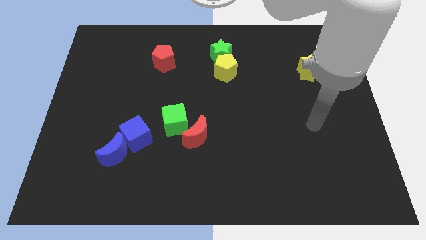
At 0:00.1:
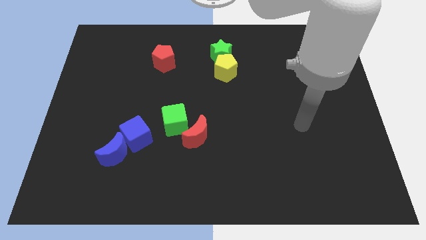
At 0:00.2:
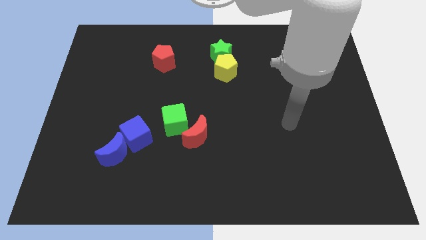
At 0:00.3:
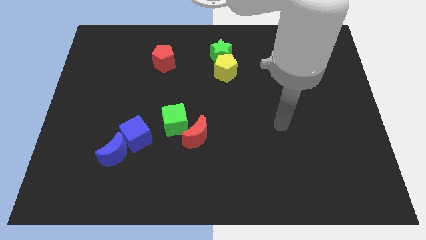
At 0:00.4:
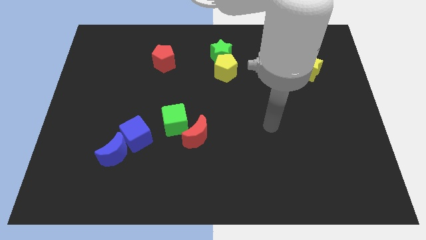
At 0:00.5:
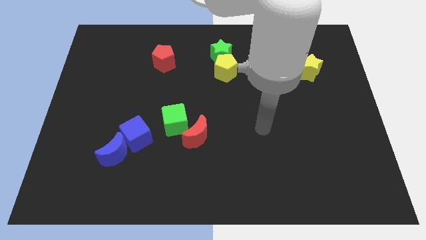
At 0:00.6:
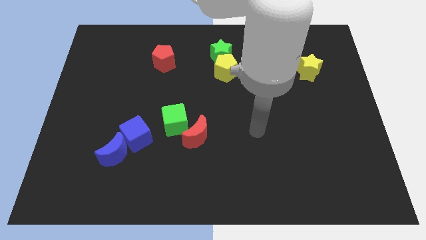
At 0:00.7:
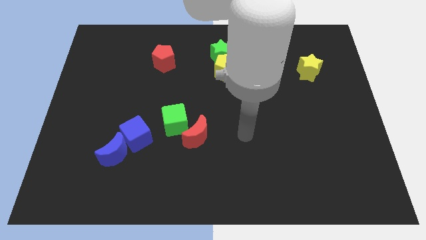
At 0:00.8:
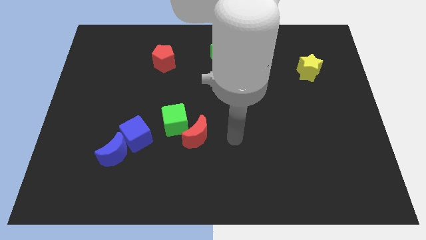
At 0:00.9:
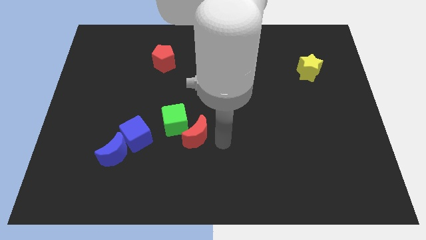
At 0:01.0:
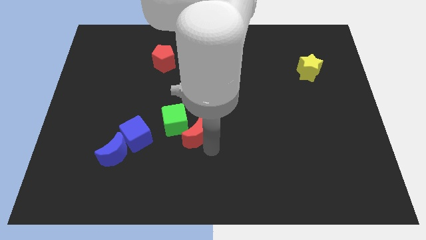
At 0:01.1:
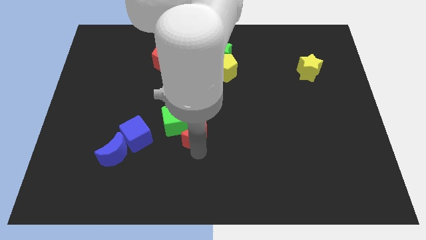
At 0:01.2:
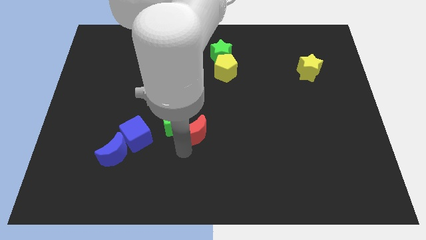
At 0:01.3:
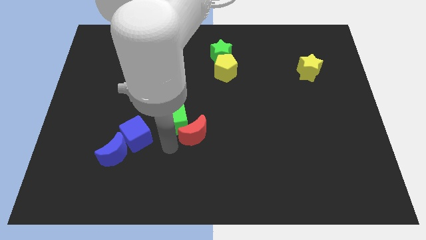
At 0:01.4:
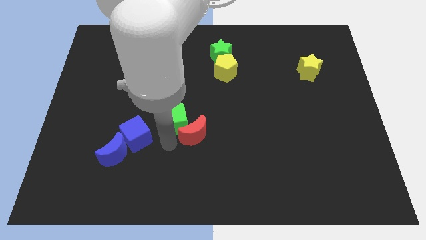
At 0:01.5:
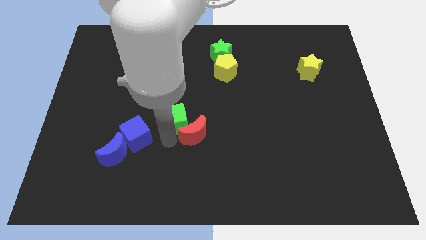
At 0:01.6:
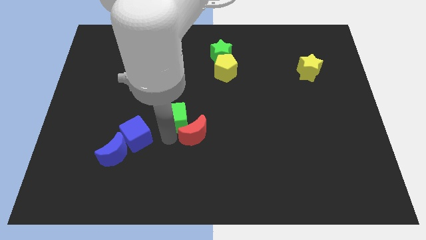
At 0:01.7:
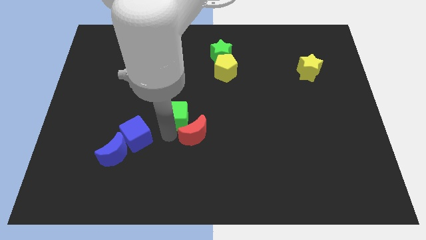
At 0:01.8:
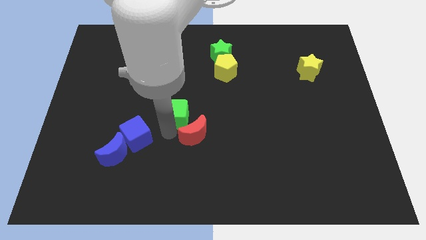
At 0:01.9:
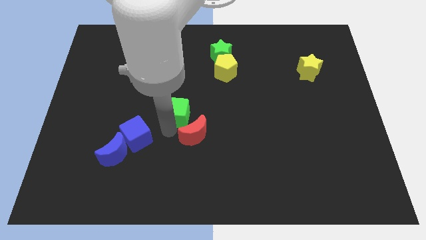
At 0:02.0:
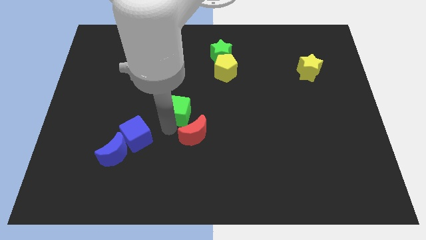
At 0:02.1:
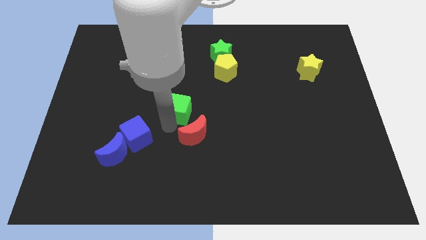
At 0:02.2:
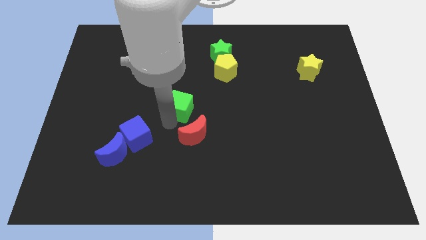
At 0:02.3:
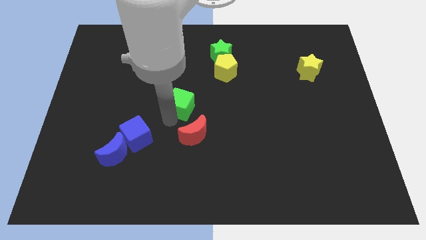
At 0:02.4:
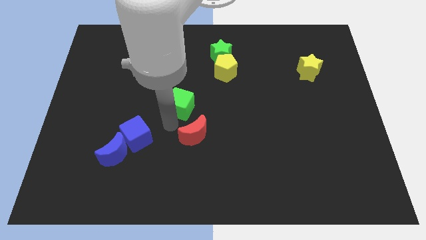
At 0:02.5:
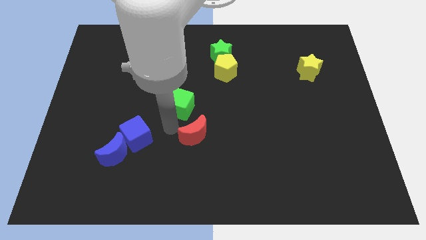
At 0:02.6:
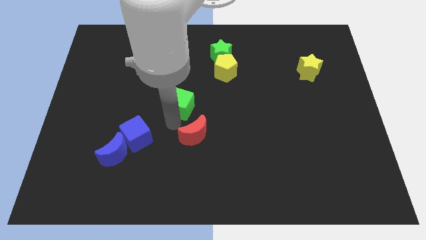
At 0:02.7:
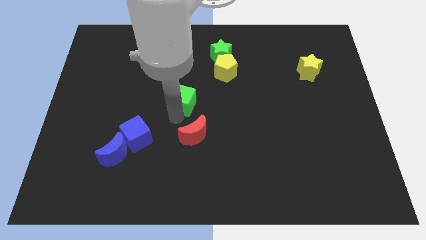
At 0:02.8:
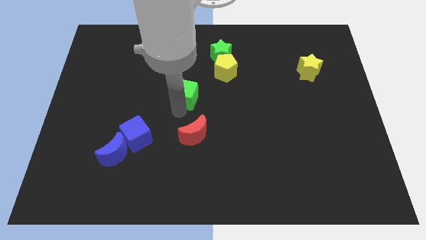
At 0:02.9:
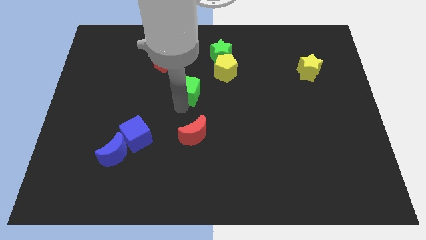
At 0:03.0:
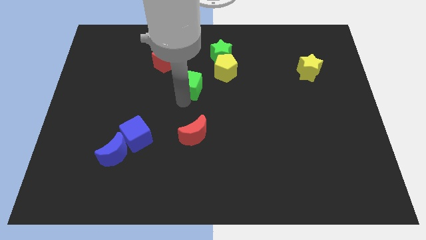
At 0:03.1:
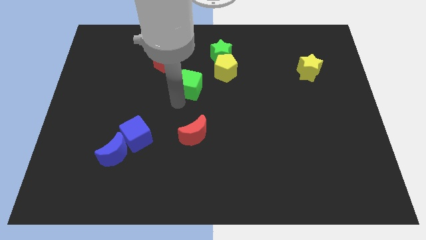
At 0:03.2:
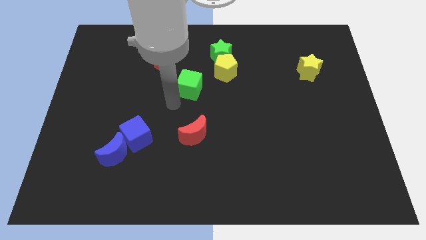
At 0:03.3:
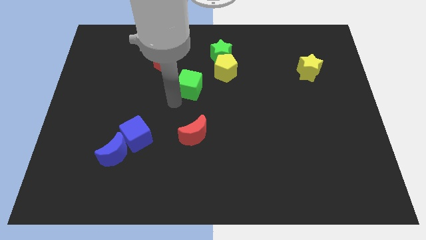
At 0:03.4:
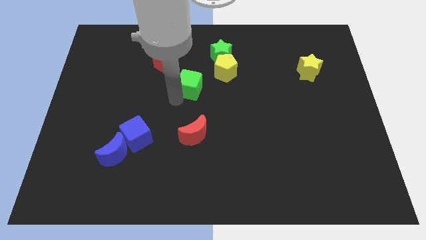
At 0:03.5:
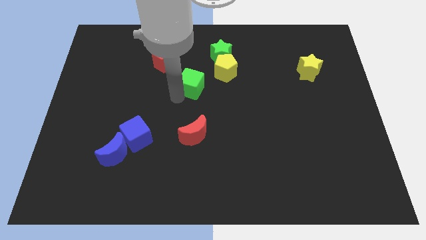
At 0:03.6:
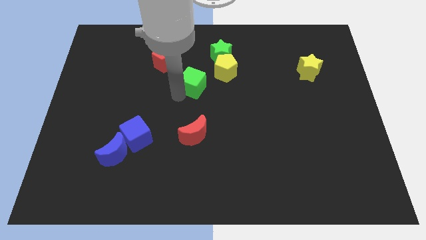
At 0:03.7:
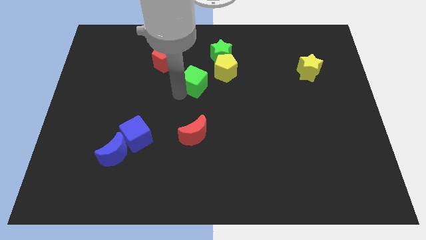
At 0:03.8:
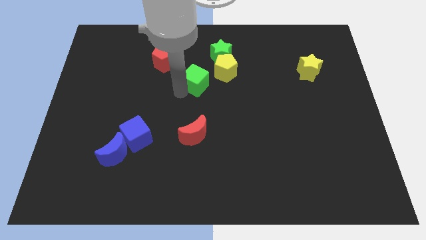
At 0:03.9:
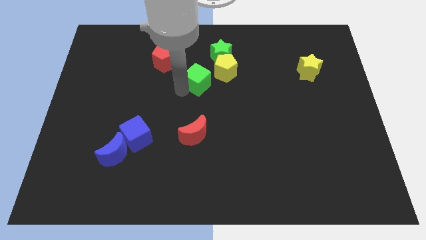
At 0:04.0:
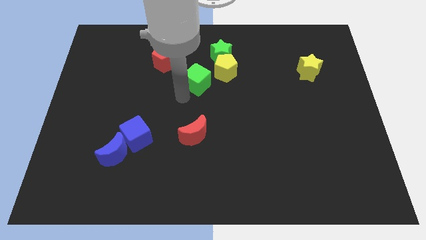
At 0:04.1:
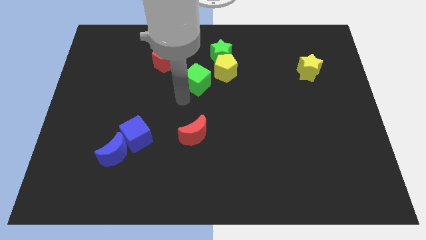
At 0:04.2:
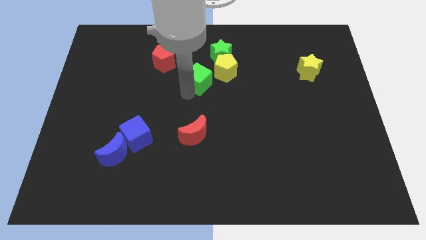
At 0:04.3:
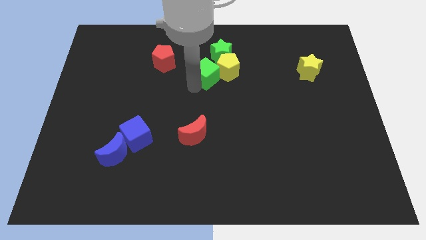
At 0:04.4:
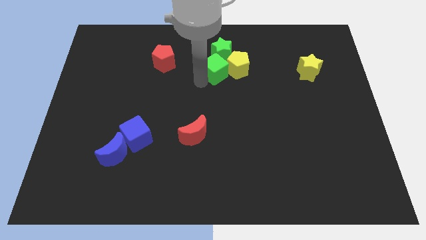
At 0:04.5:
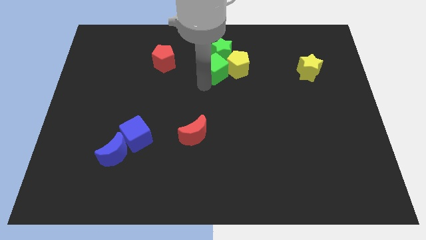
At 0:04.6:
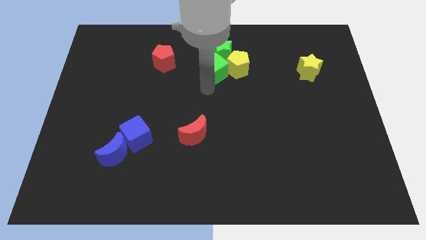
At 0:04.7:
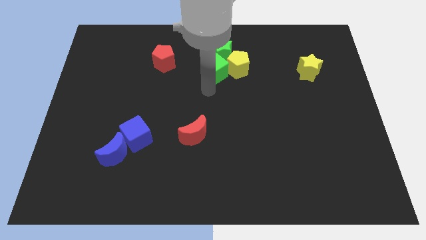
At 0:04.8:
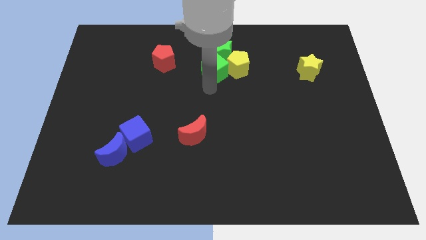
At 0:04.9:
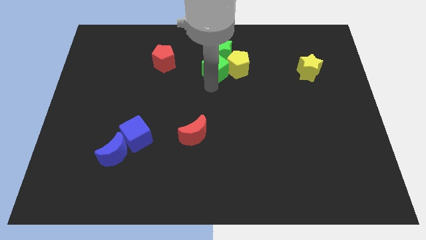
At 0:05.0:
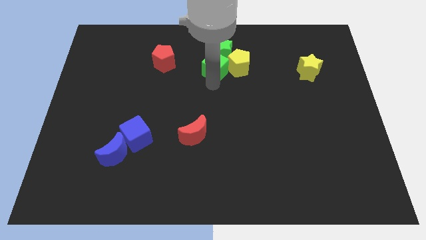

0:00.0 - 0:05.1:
push the green cube next to the green star

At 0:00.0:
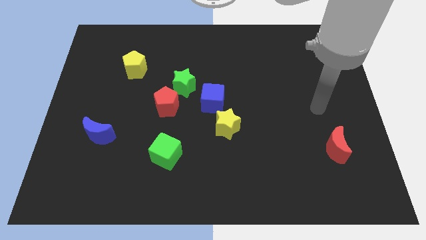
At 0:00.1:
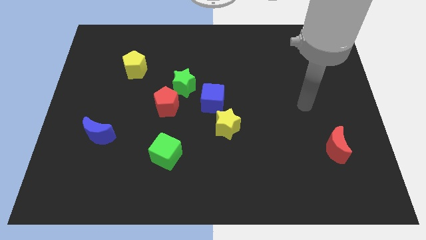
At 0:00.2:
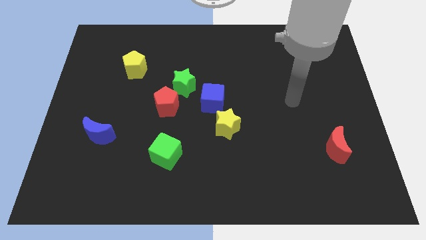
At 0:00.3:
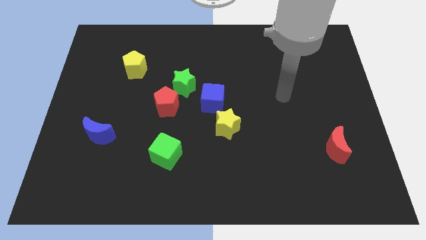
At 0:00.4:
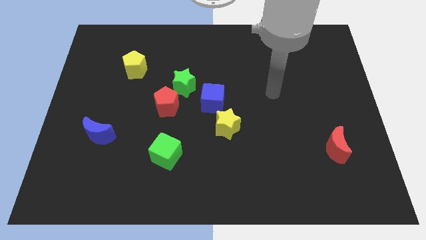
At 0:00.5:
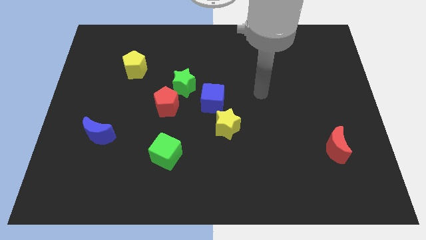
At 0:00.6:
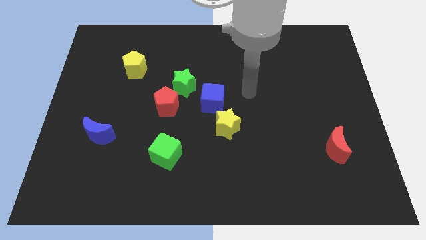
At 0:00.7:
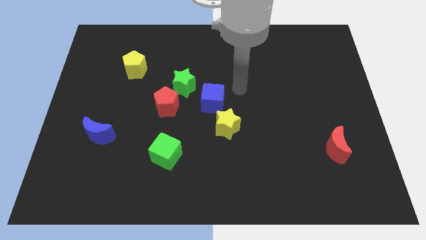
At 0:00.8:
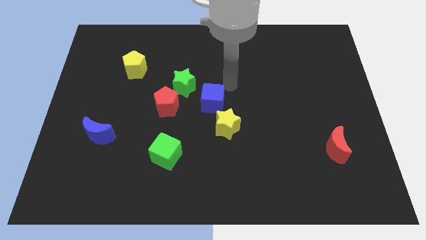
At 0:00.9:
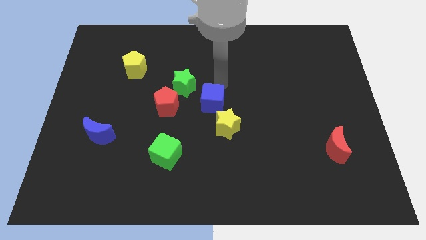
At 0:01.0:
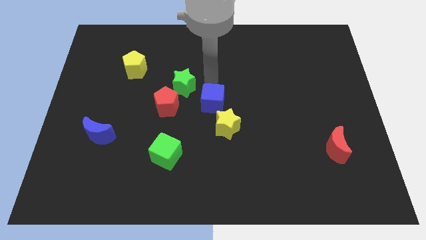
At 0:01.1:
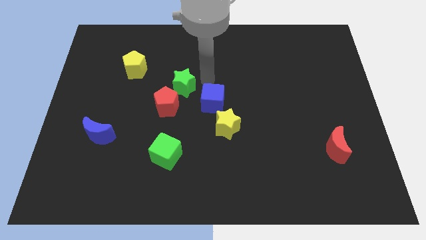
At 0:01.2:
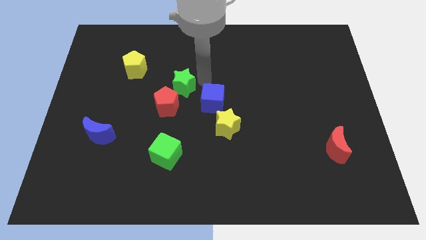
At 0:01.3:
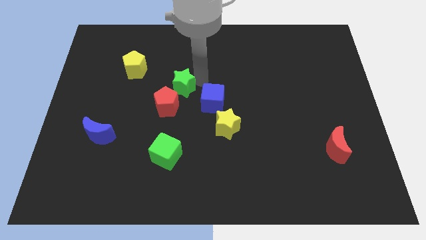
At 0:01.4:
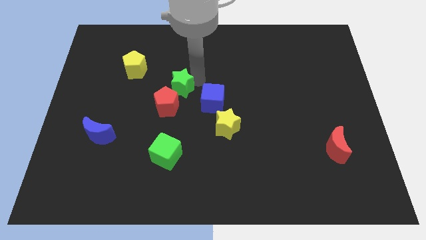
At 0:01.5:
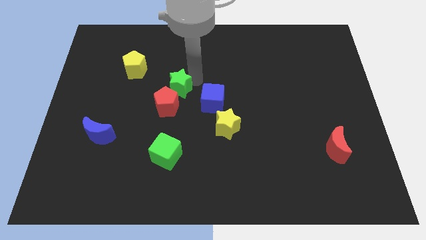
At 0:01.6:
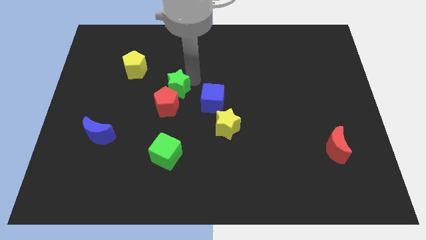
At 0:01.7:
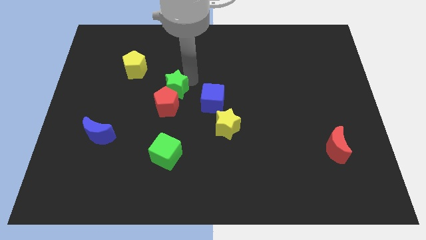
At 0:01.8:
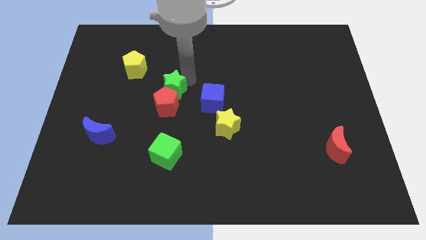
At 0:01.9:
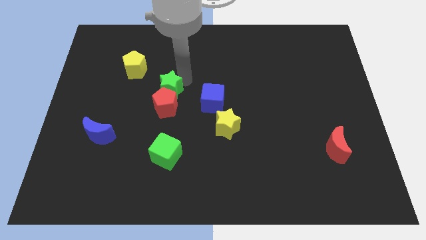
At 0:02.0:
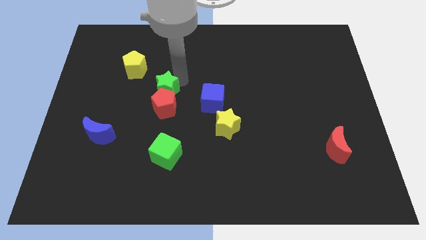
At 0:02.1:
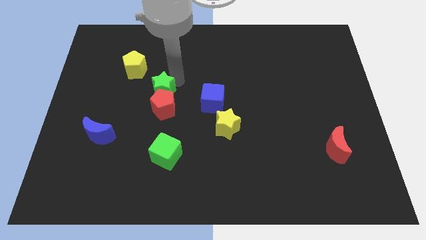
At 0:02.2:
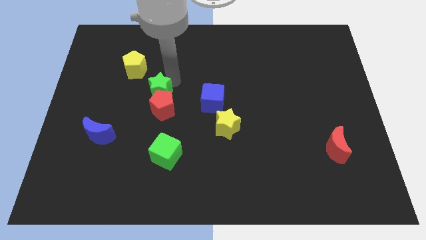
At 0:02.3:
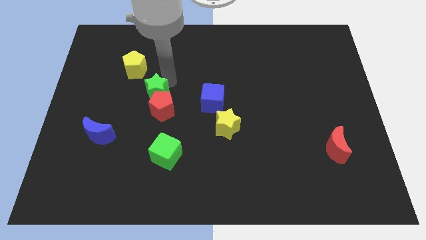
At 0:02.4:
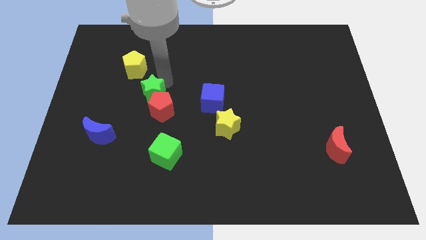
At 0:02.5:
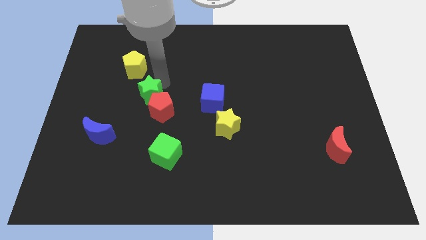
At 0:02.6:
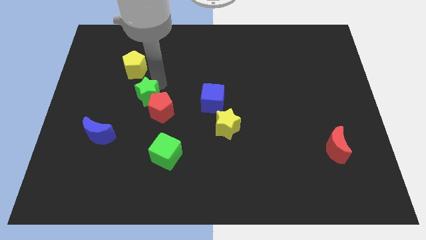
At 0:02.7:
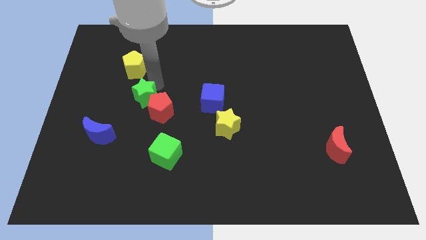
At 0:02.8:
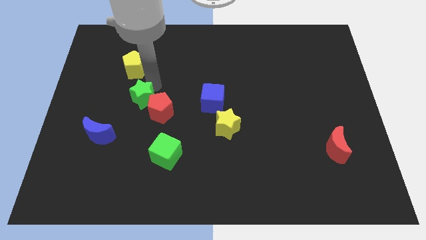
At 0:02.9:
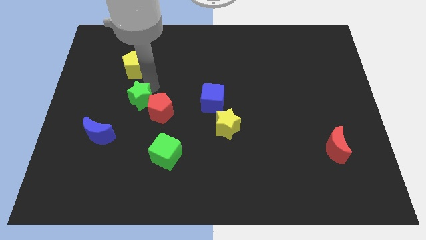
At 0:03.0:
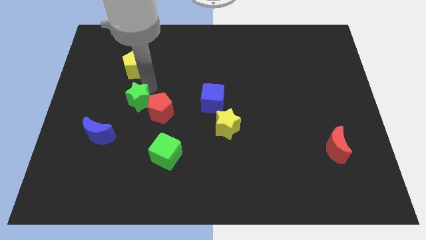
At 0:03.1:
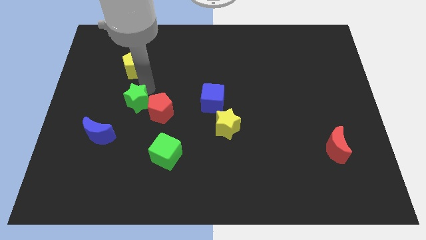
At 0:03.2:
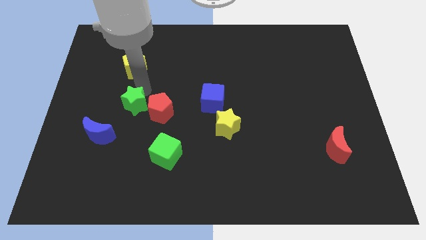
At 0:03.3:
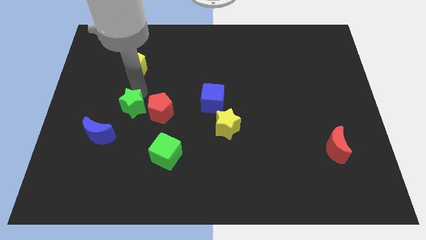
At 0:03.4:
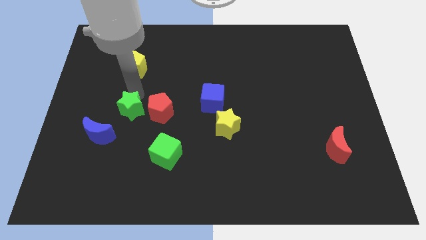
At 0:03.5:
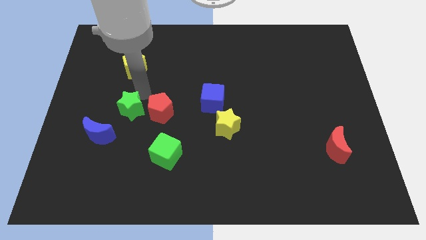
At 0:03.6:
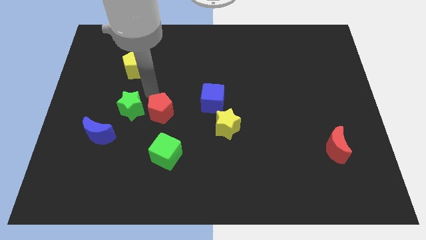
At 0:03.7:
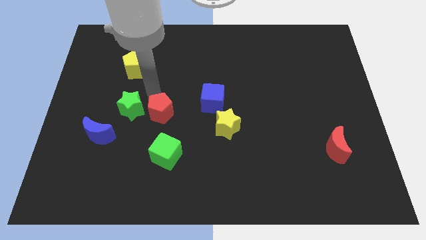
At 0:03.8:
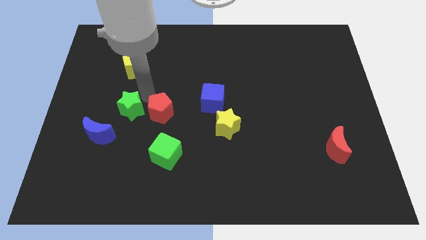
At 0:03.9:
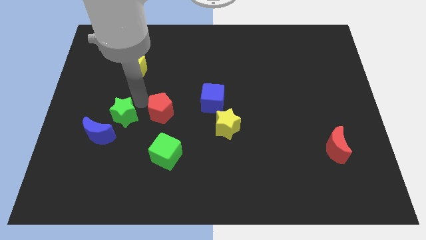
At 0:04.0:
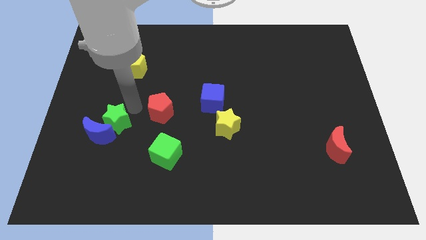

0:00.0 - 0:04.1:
slide the green star next to the blue moon
